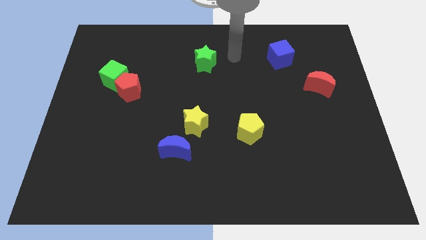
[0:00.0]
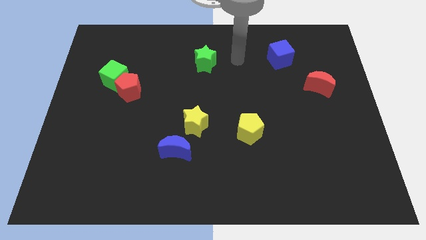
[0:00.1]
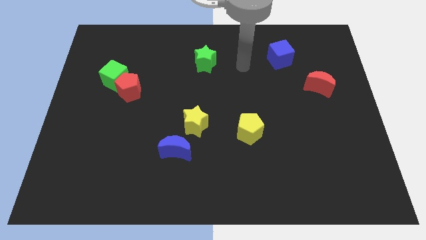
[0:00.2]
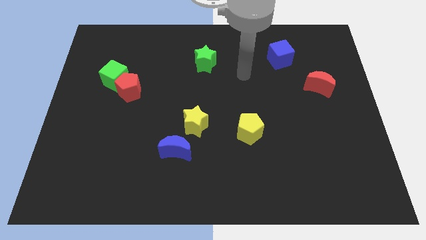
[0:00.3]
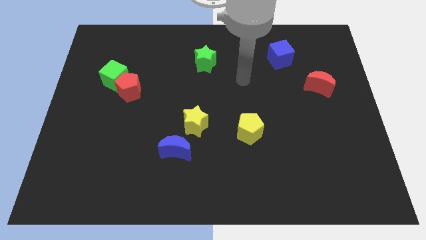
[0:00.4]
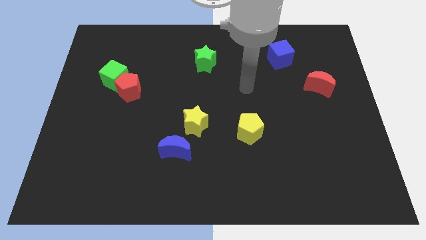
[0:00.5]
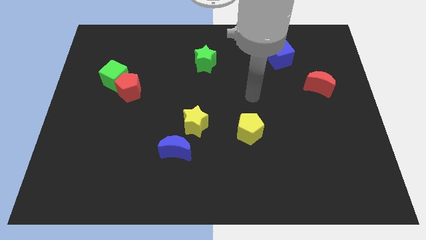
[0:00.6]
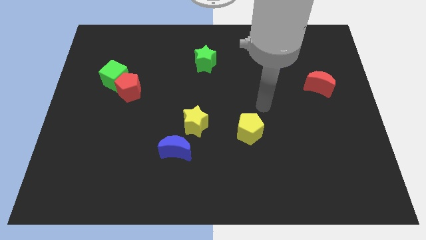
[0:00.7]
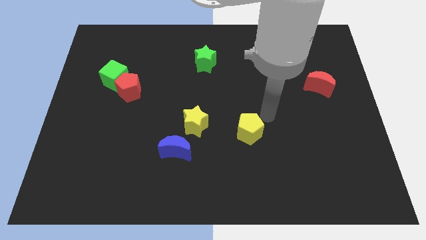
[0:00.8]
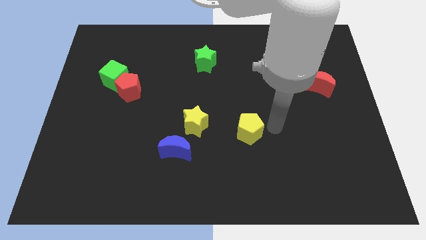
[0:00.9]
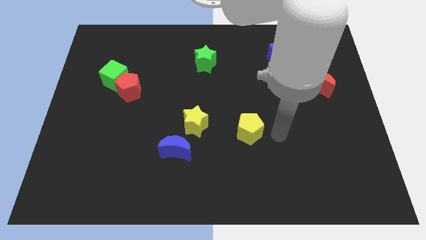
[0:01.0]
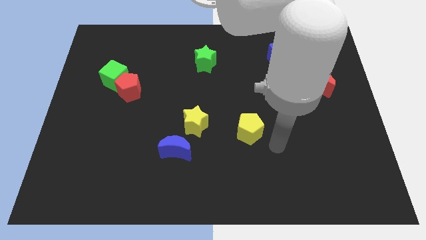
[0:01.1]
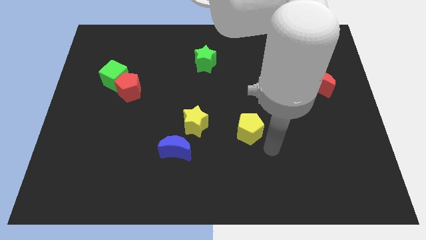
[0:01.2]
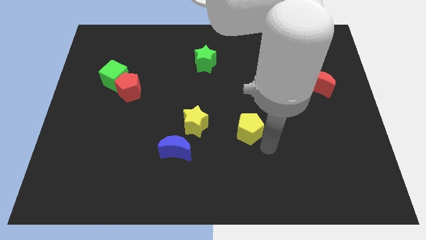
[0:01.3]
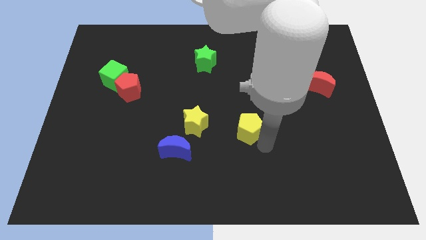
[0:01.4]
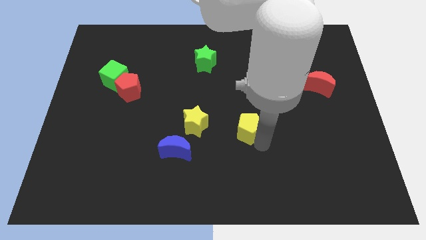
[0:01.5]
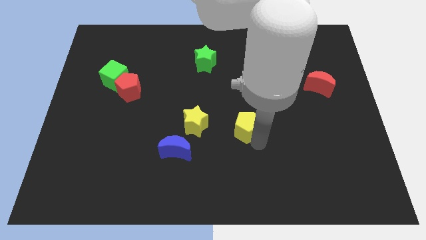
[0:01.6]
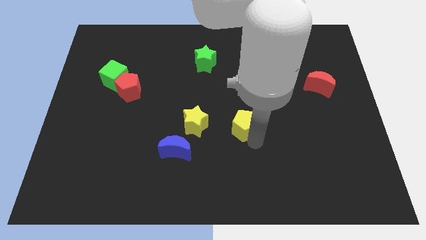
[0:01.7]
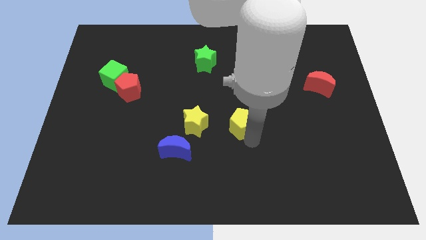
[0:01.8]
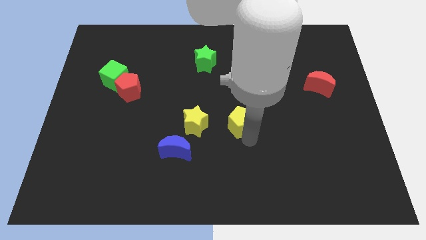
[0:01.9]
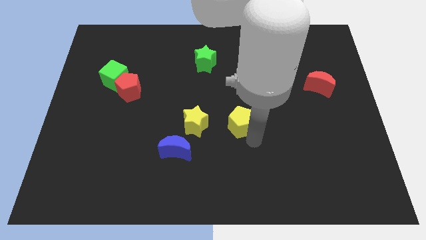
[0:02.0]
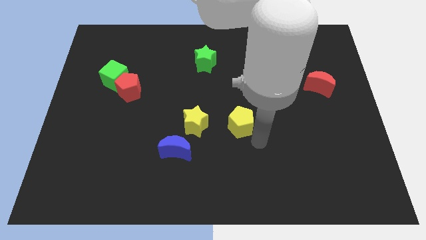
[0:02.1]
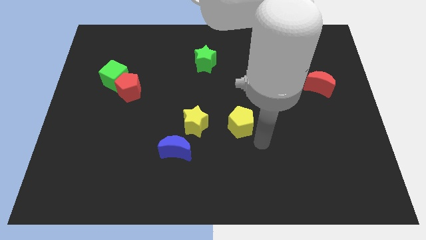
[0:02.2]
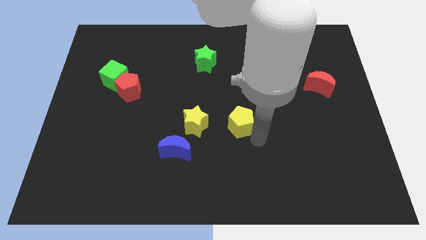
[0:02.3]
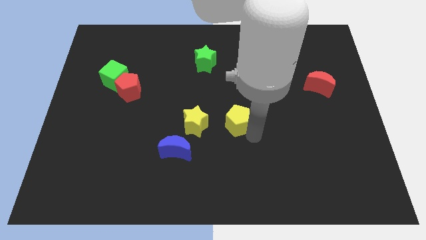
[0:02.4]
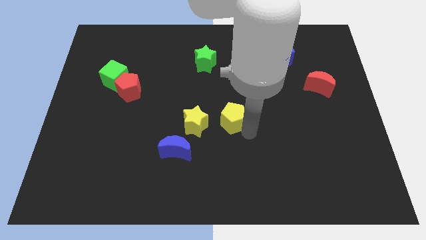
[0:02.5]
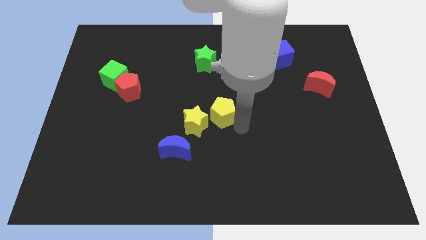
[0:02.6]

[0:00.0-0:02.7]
push the yellow pentagon a little up and left diagonally

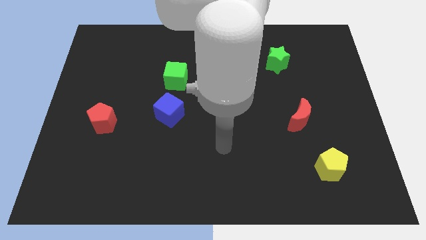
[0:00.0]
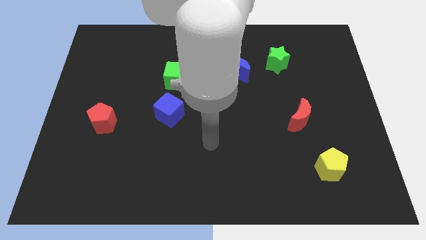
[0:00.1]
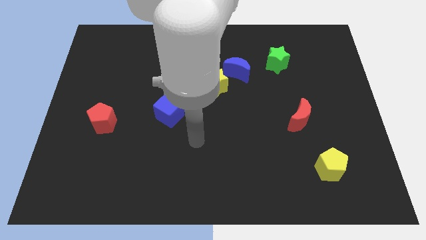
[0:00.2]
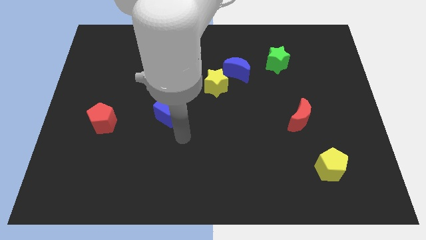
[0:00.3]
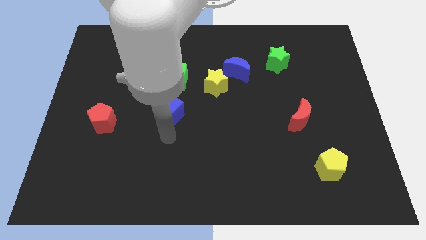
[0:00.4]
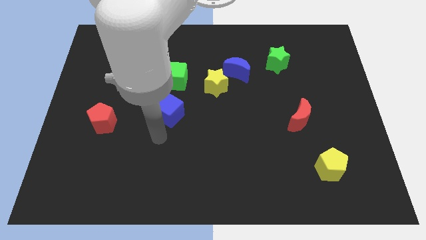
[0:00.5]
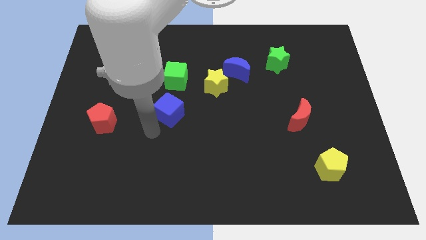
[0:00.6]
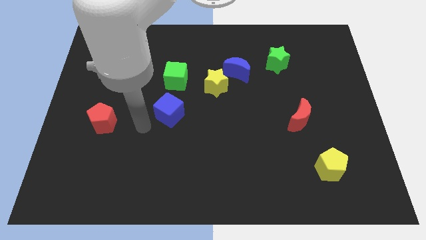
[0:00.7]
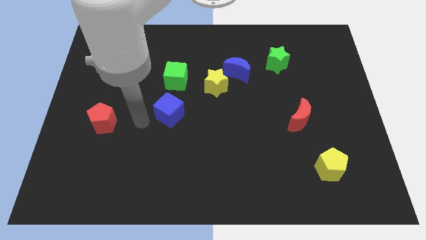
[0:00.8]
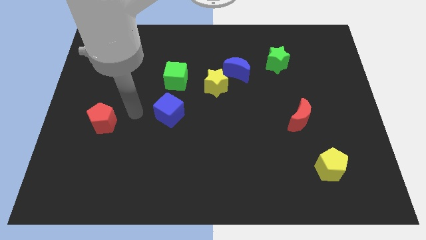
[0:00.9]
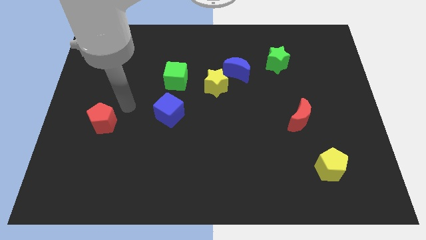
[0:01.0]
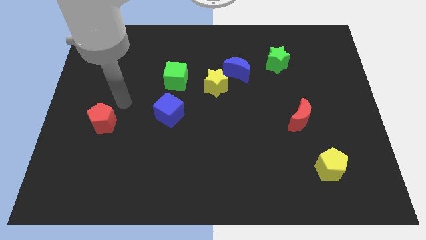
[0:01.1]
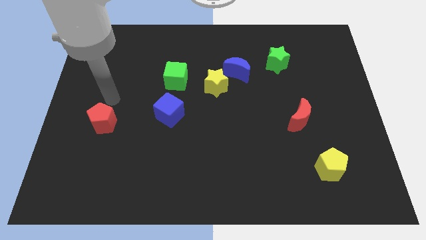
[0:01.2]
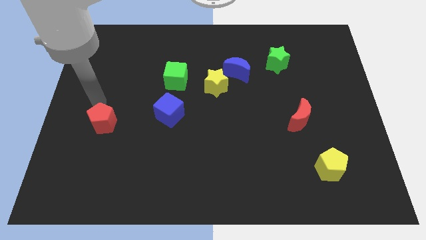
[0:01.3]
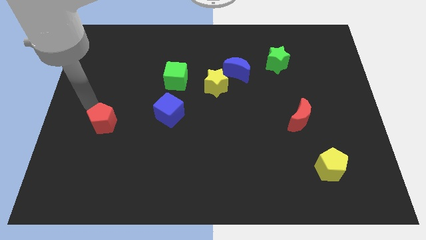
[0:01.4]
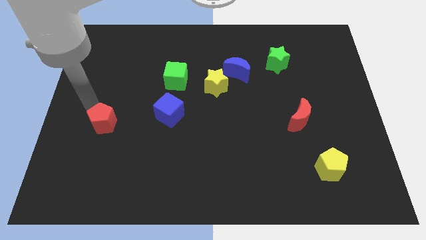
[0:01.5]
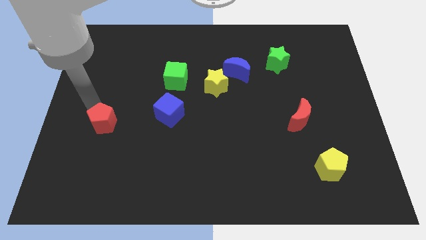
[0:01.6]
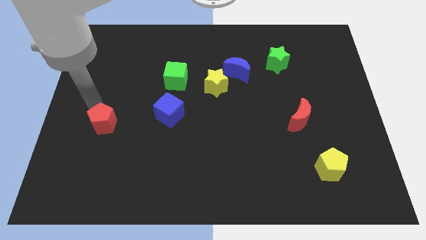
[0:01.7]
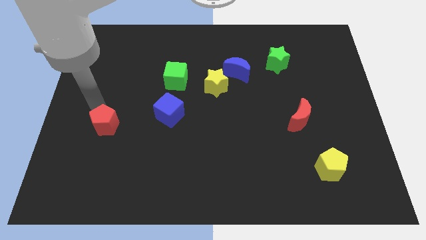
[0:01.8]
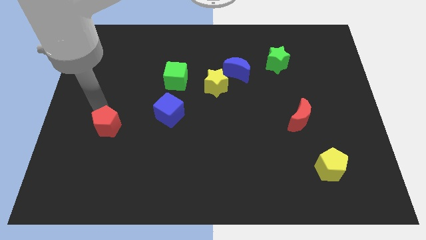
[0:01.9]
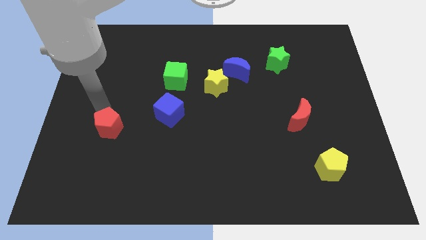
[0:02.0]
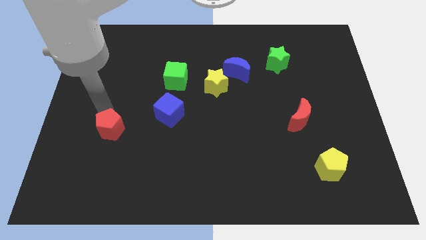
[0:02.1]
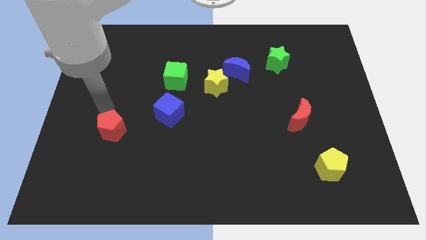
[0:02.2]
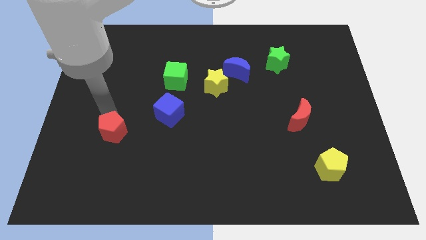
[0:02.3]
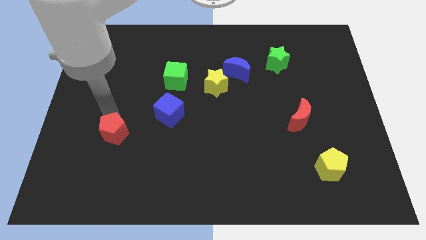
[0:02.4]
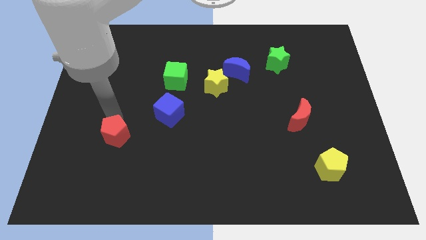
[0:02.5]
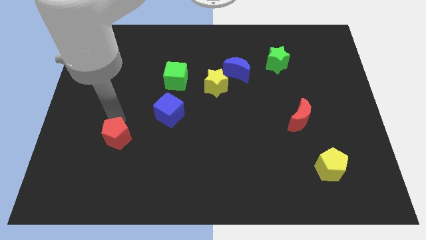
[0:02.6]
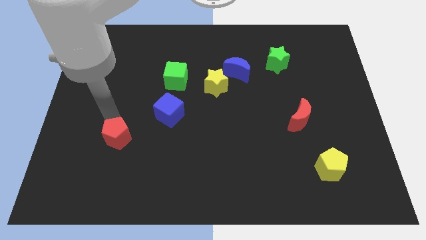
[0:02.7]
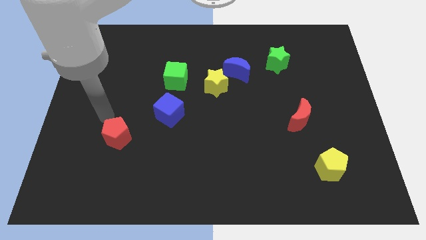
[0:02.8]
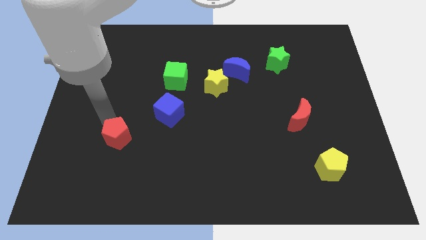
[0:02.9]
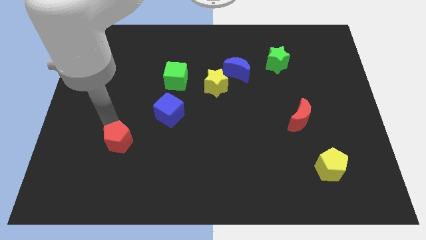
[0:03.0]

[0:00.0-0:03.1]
move the red pentagon a bit down and right diagonally

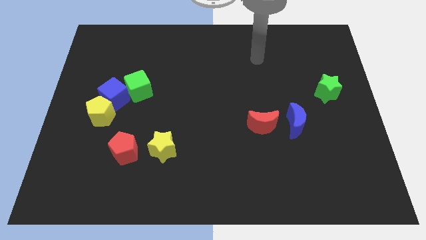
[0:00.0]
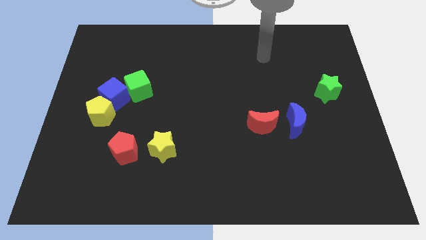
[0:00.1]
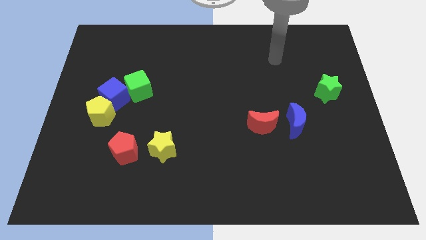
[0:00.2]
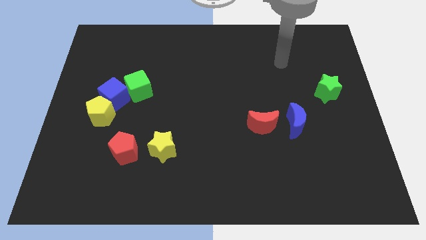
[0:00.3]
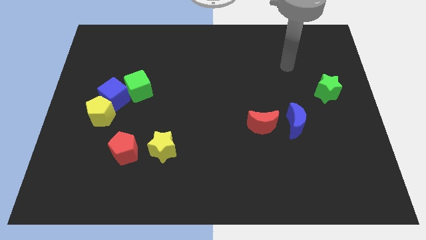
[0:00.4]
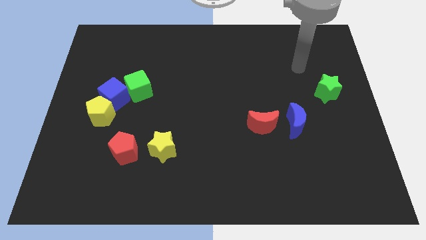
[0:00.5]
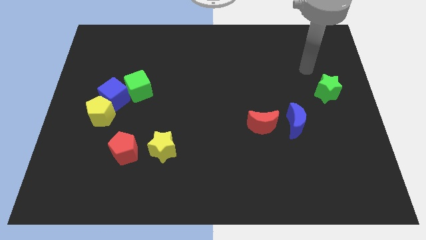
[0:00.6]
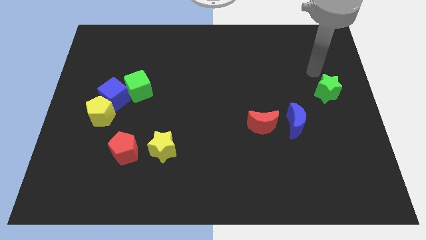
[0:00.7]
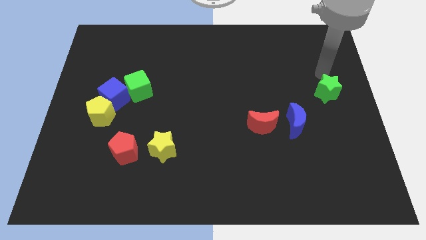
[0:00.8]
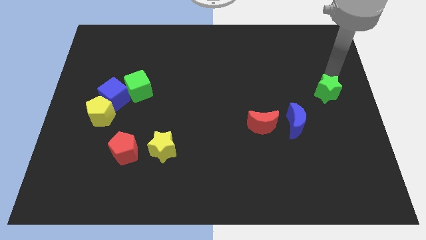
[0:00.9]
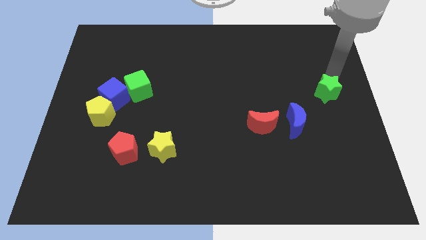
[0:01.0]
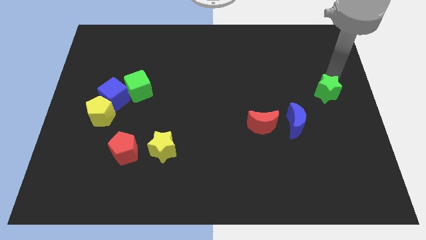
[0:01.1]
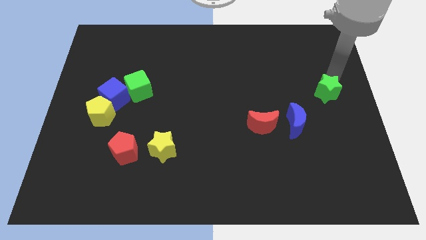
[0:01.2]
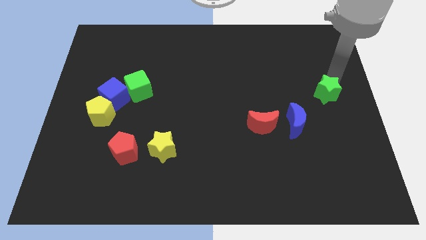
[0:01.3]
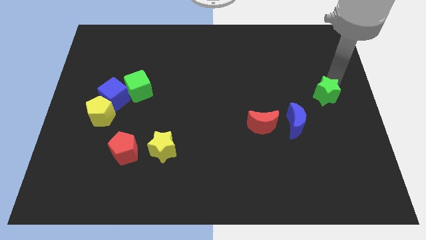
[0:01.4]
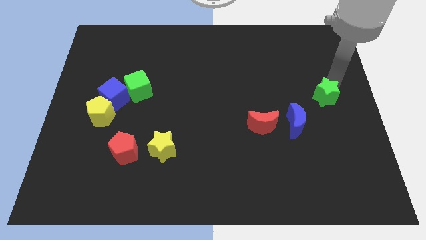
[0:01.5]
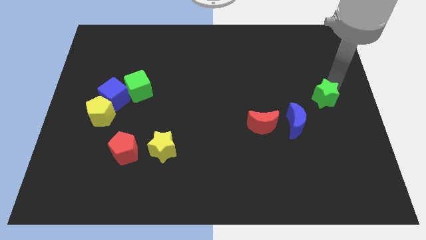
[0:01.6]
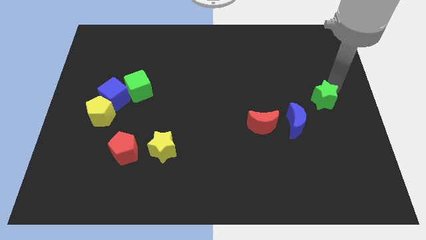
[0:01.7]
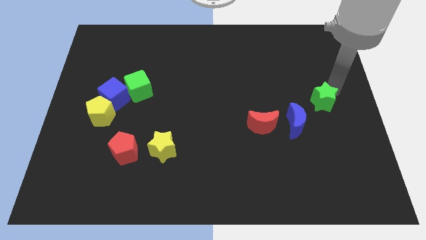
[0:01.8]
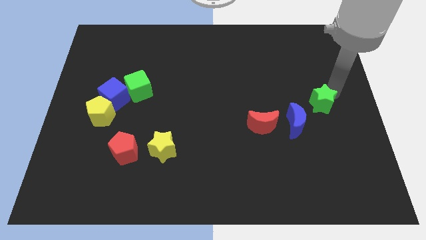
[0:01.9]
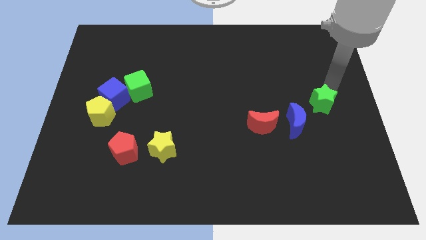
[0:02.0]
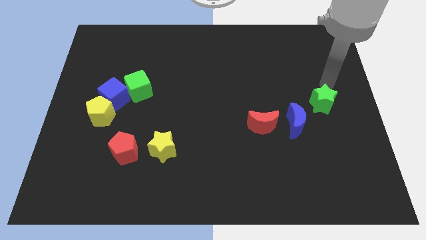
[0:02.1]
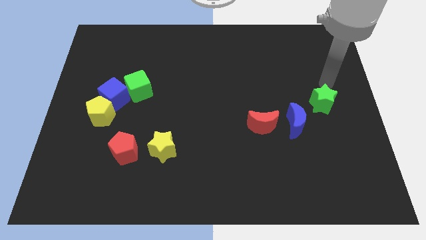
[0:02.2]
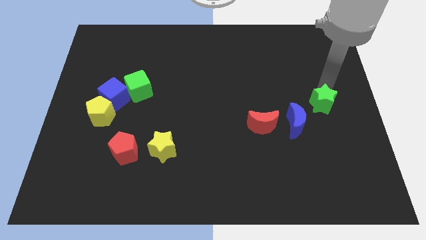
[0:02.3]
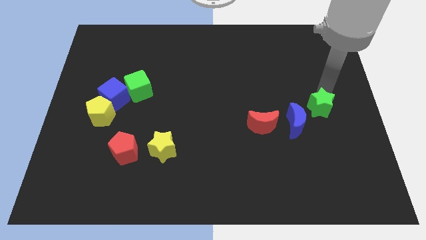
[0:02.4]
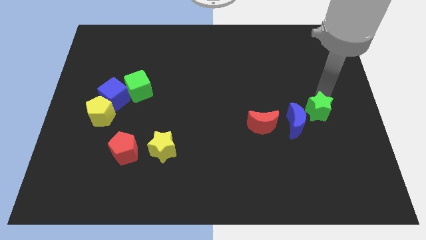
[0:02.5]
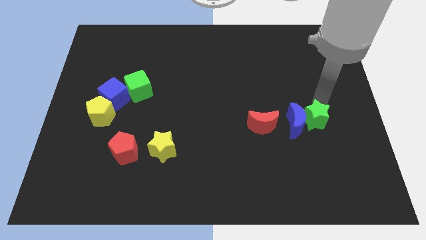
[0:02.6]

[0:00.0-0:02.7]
push the green star downwards and left diagonally slightly
